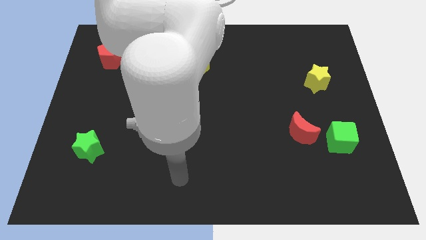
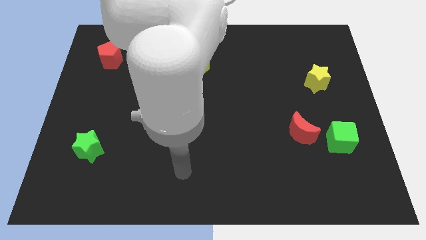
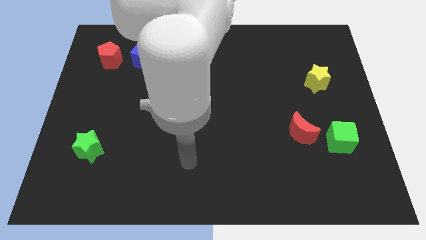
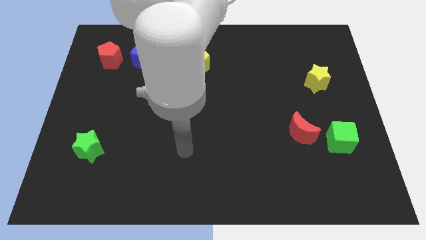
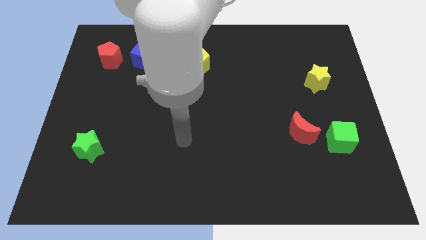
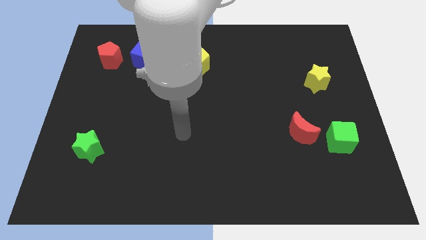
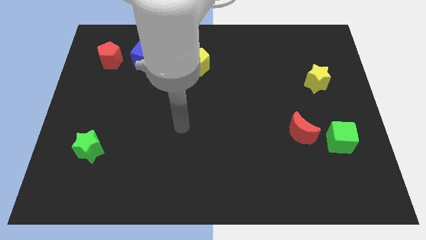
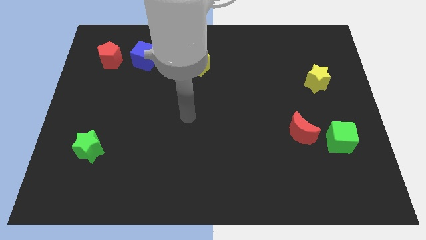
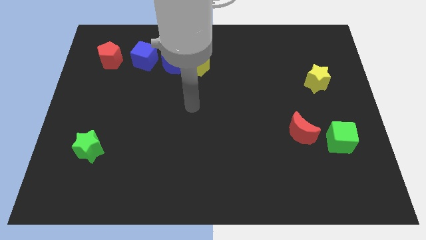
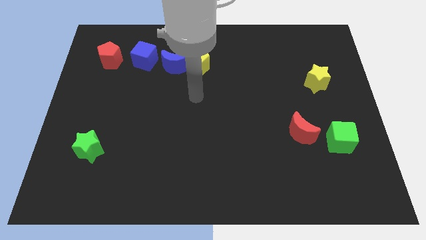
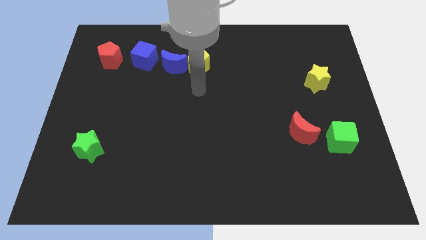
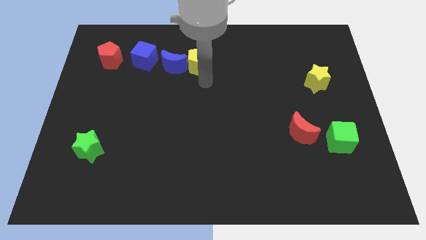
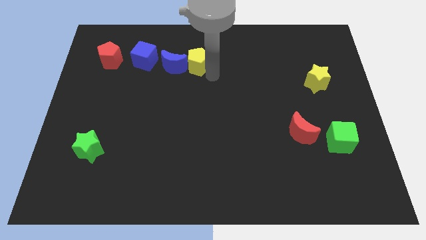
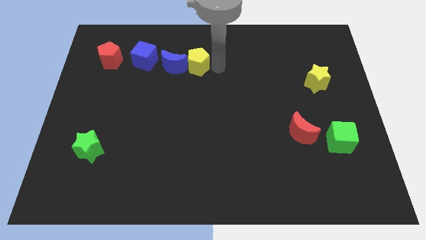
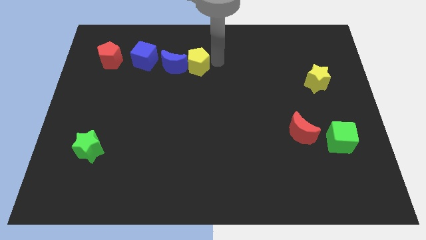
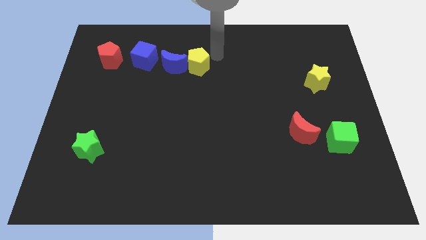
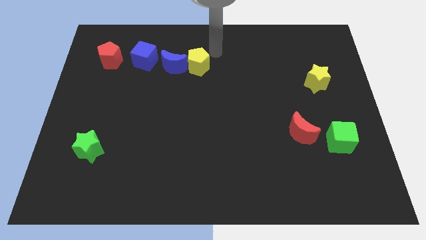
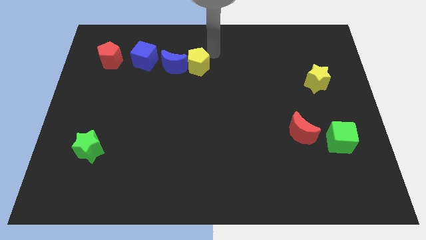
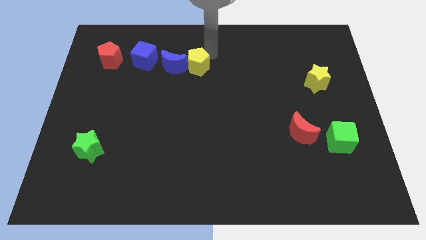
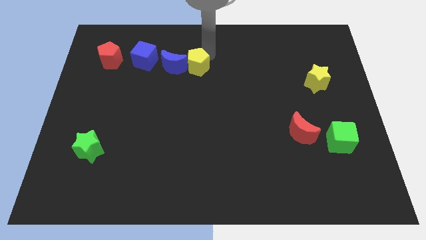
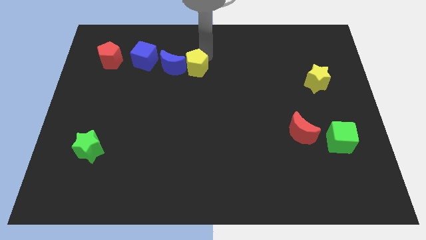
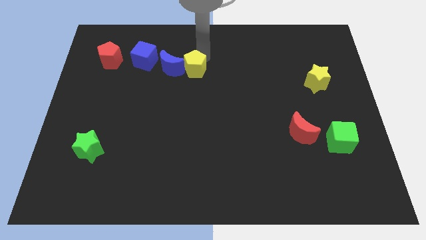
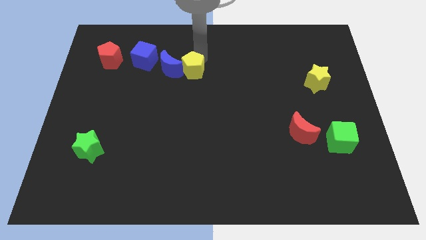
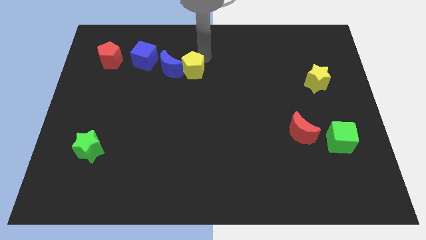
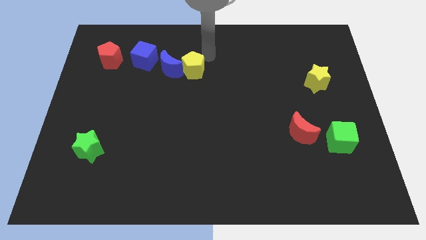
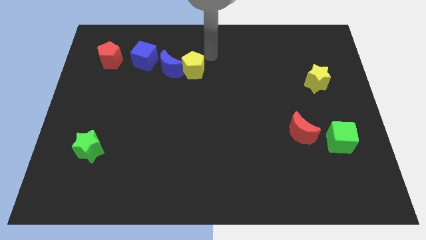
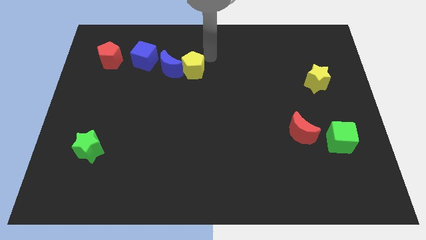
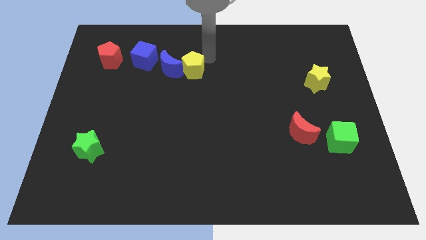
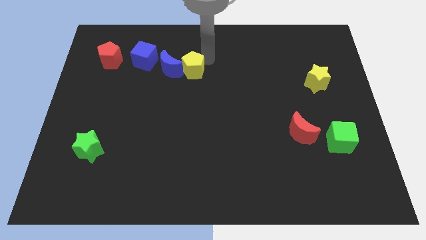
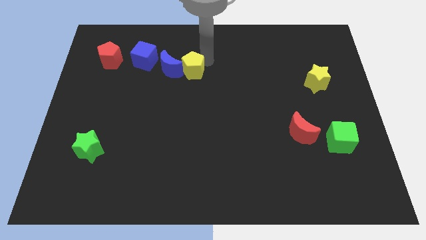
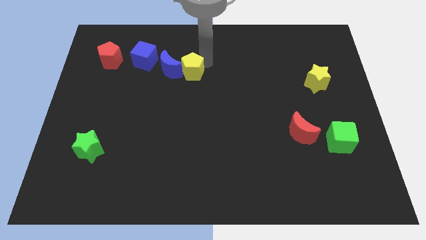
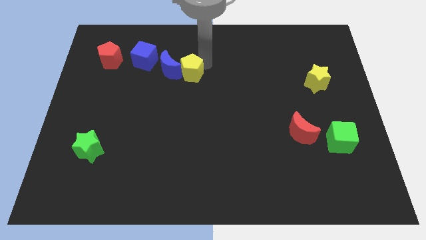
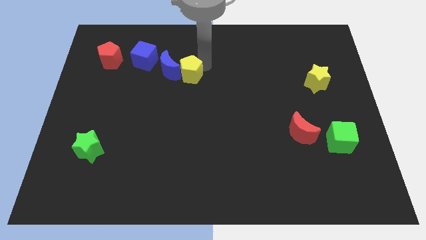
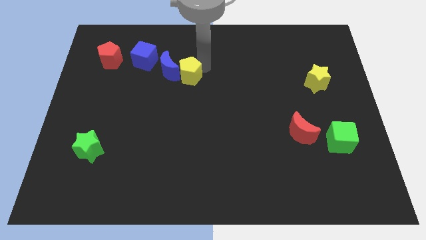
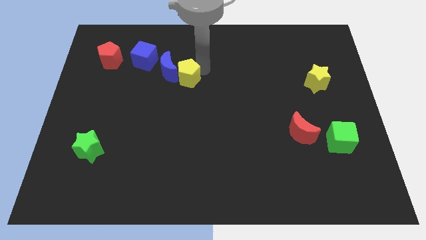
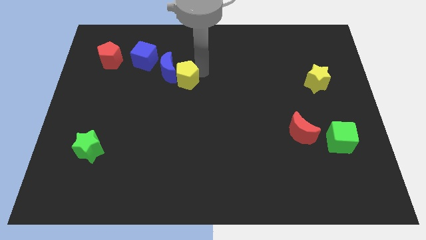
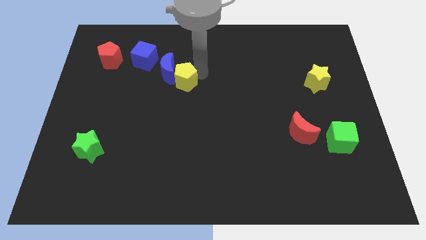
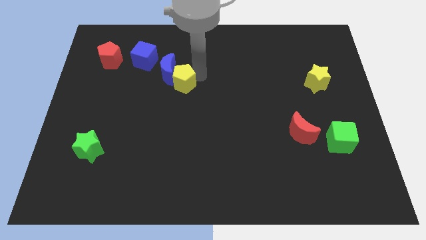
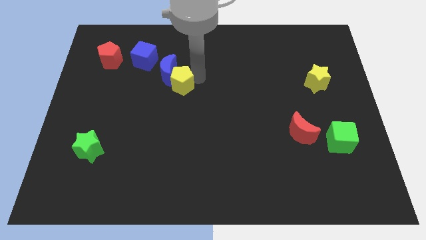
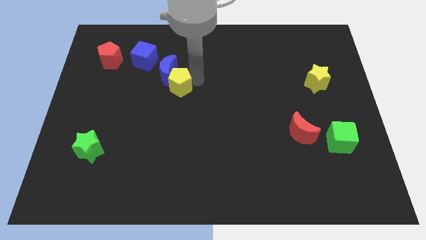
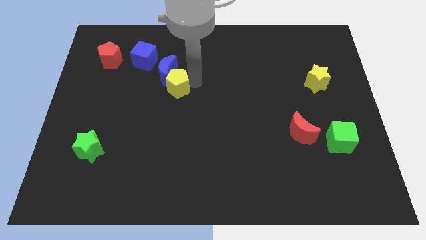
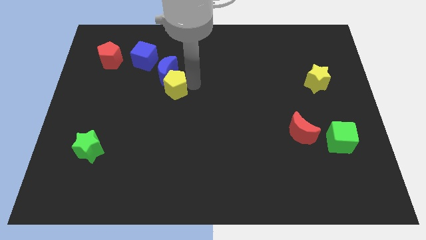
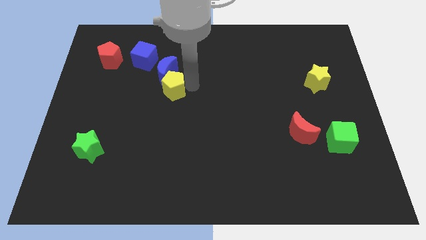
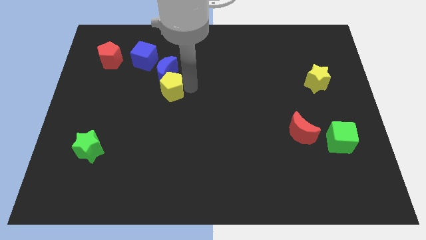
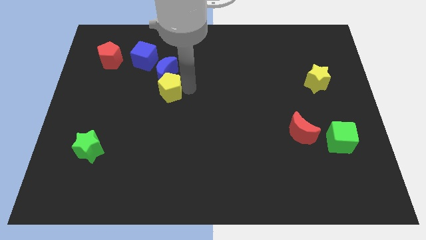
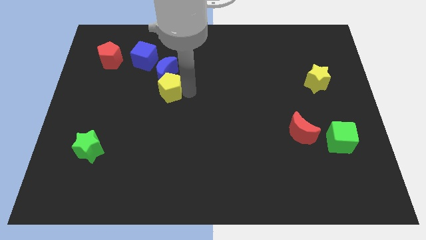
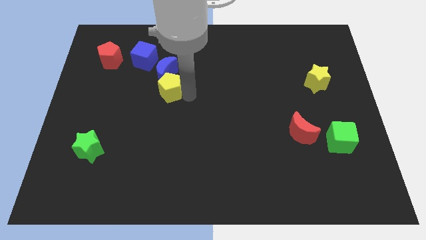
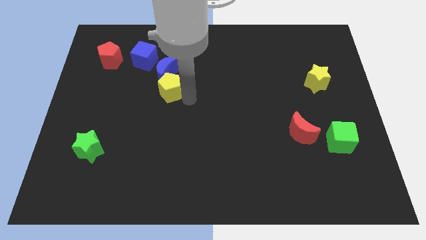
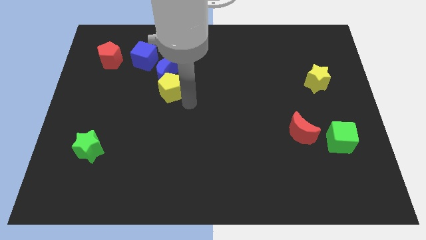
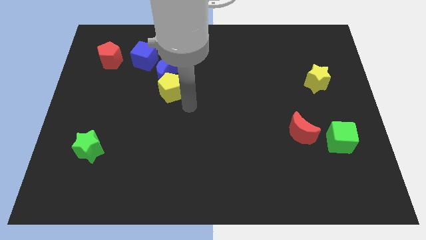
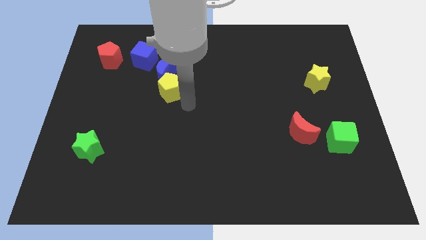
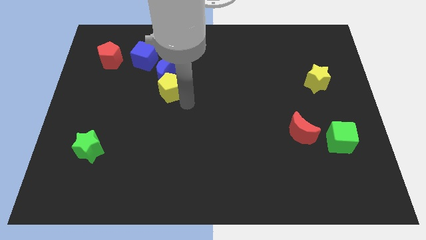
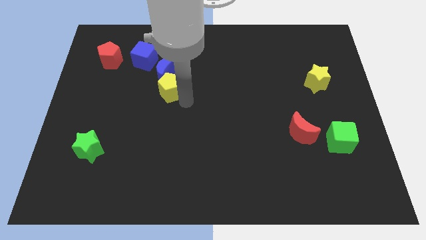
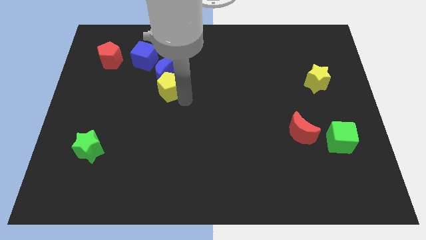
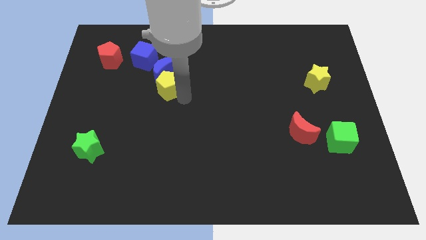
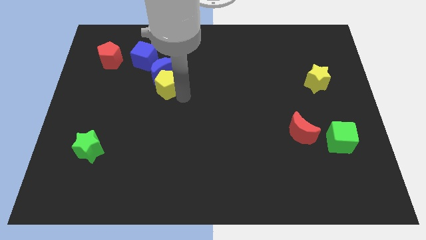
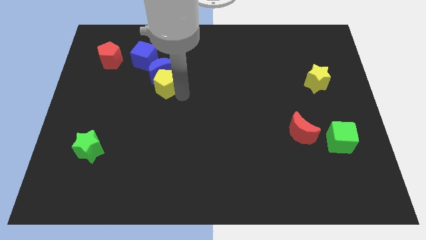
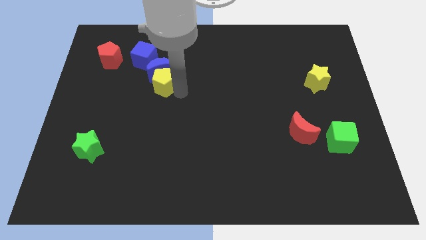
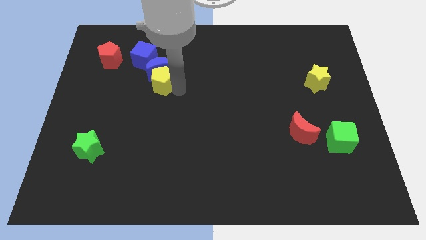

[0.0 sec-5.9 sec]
push the yellow pentagon to the left a bit

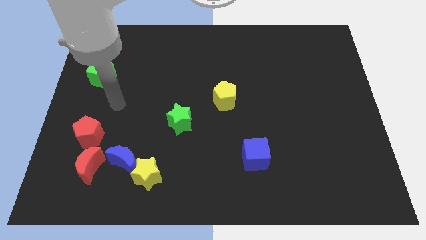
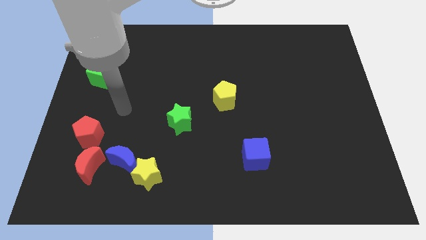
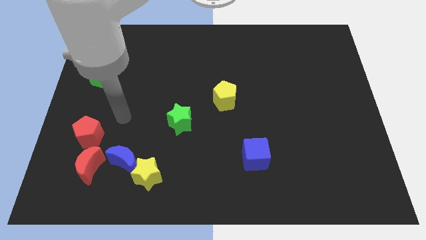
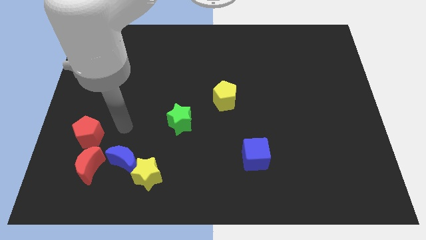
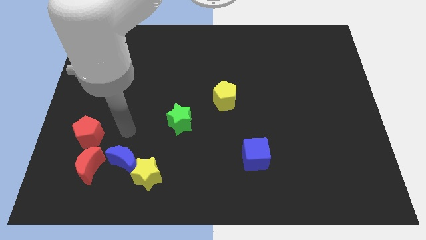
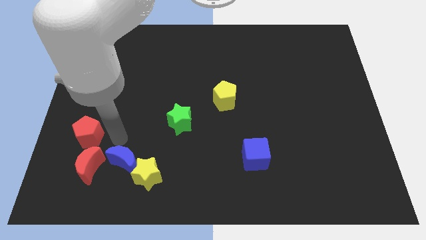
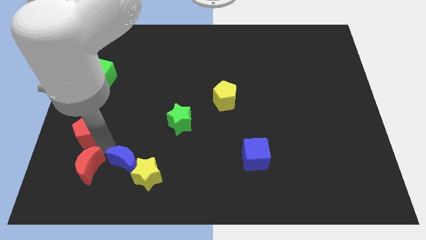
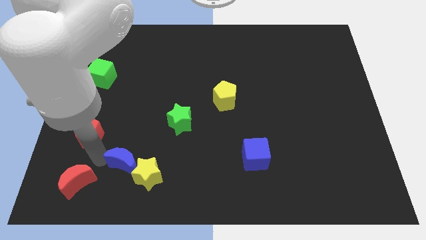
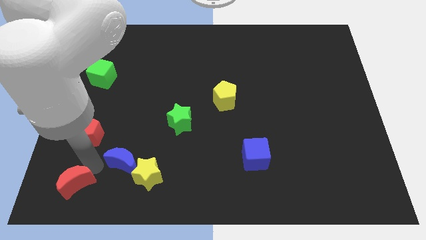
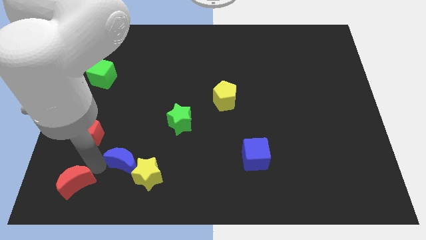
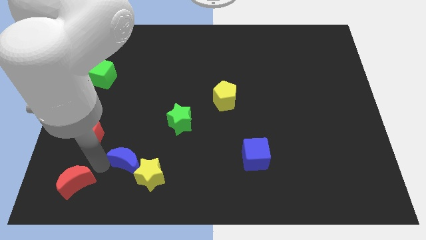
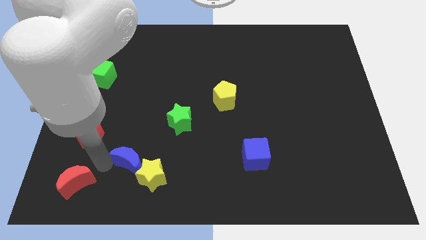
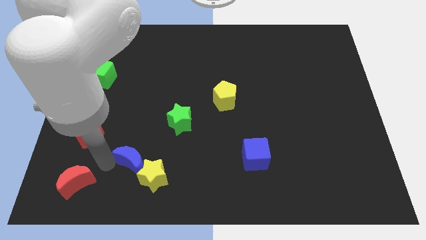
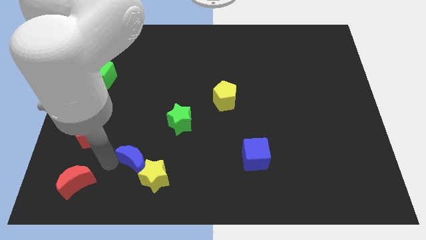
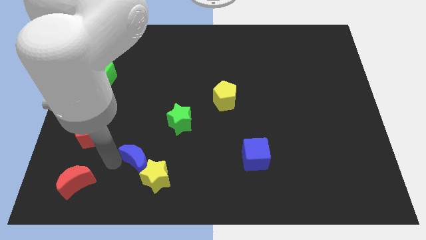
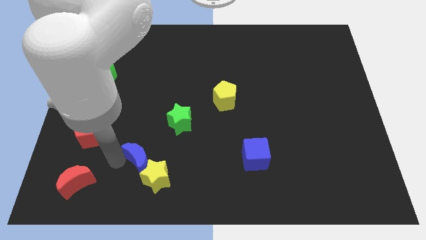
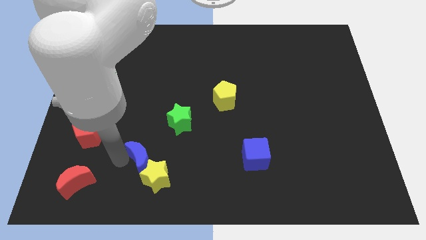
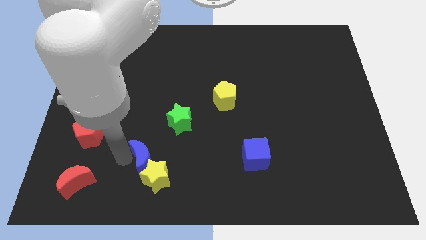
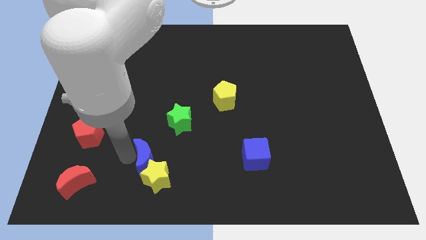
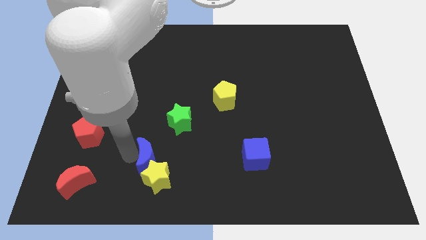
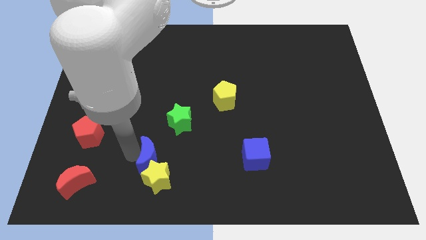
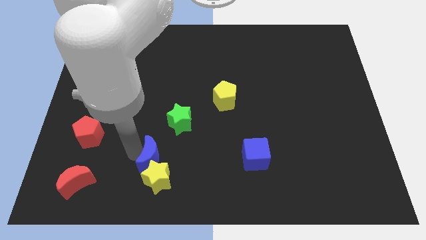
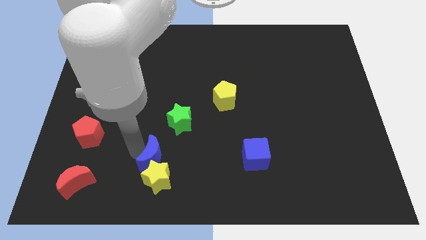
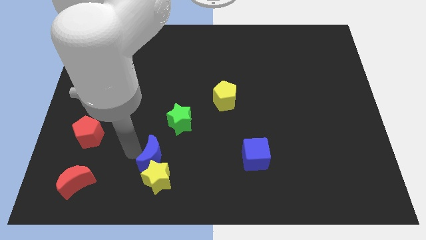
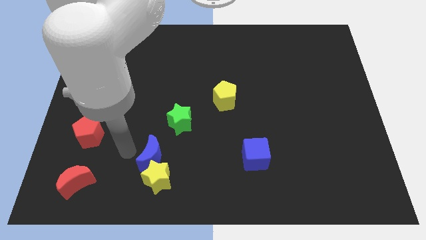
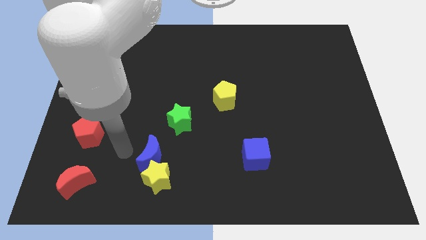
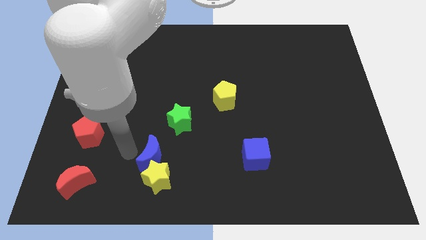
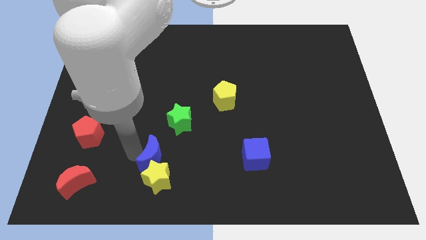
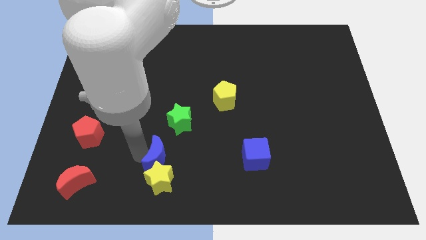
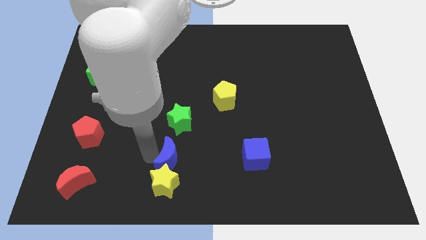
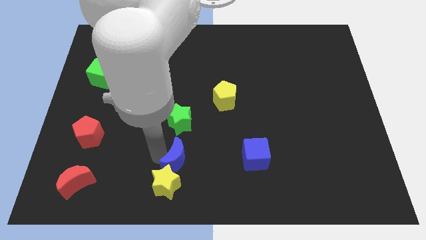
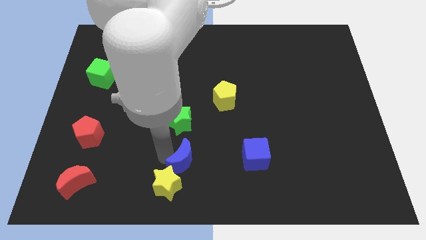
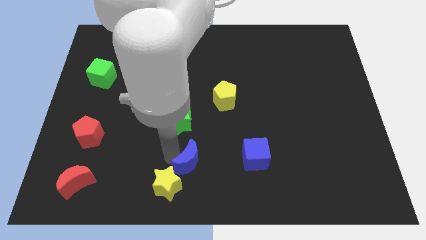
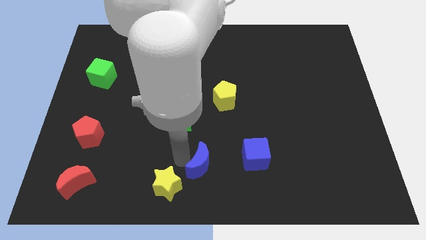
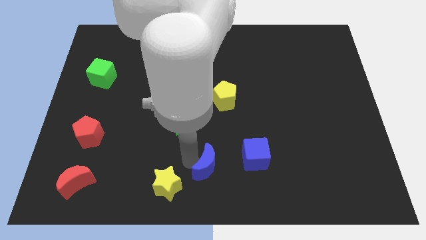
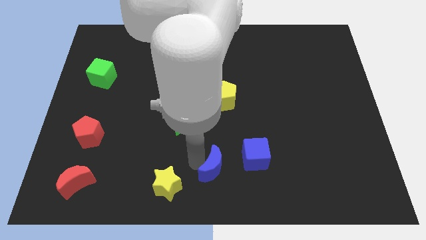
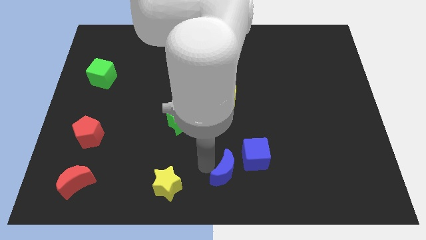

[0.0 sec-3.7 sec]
move the blue moon right
